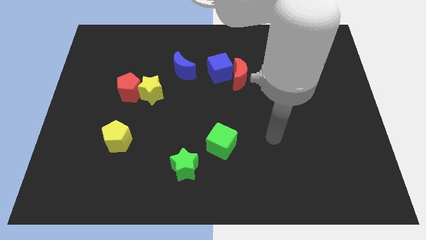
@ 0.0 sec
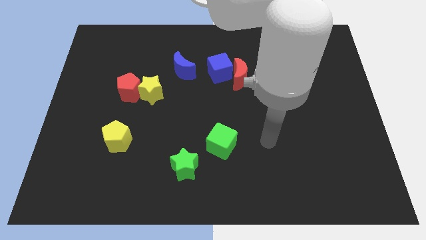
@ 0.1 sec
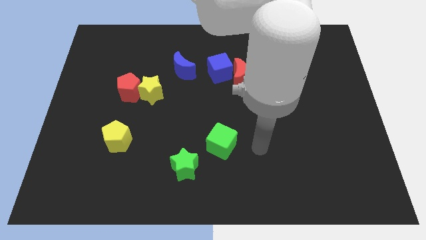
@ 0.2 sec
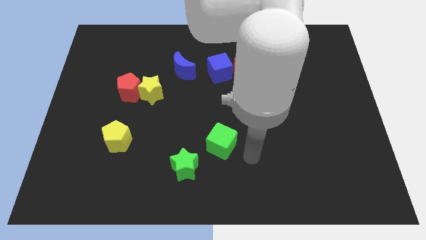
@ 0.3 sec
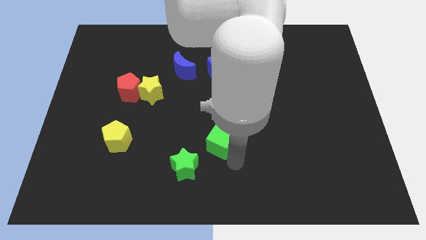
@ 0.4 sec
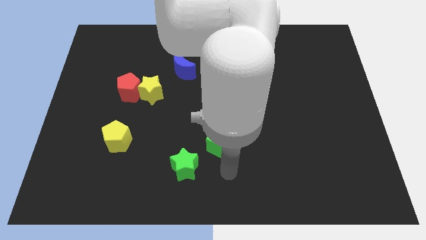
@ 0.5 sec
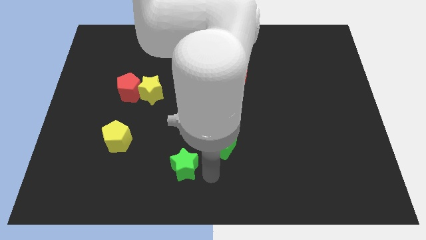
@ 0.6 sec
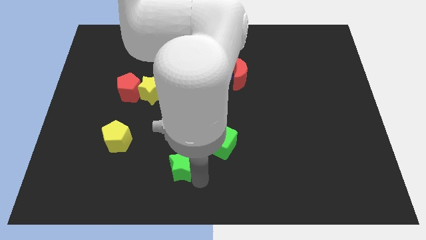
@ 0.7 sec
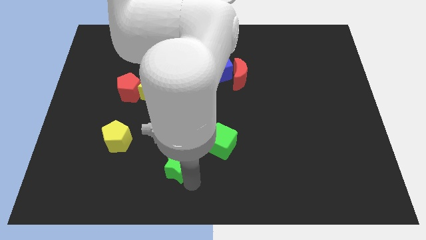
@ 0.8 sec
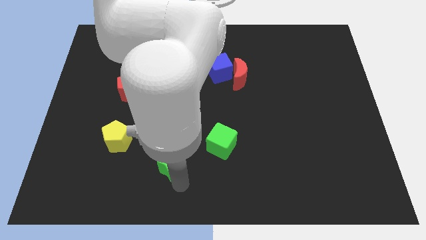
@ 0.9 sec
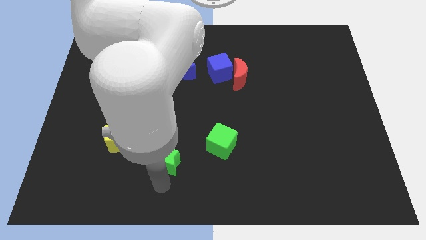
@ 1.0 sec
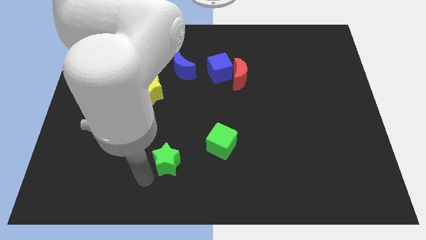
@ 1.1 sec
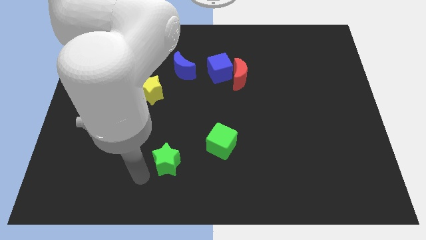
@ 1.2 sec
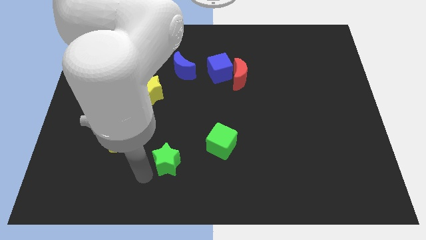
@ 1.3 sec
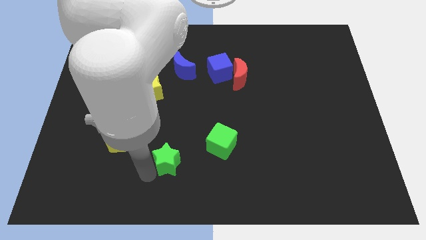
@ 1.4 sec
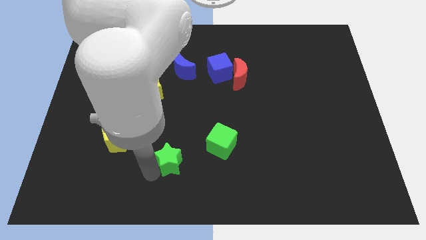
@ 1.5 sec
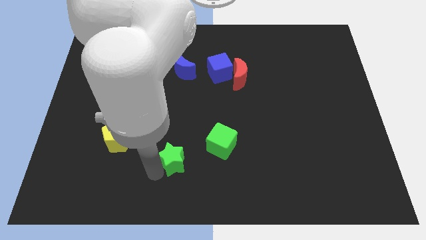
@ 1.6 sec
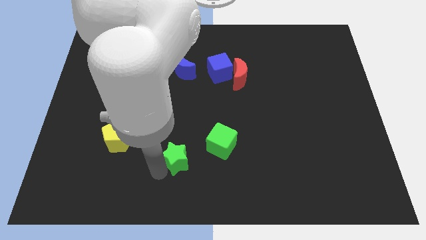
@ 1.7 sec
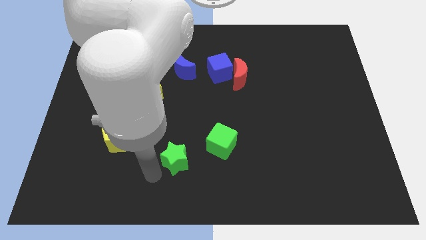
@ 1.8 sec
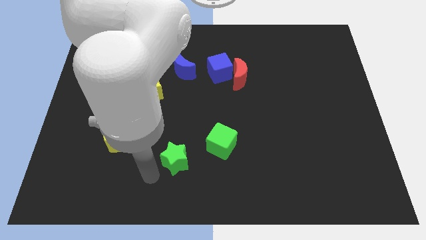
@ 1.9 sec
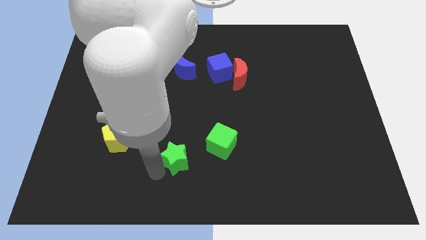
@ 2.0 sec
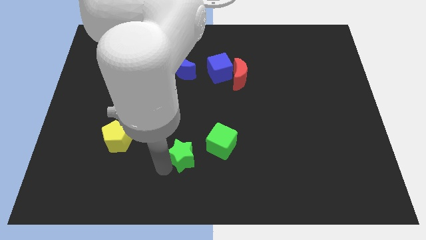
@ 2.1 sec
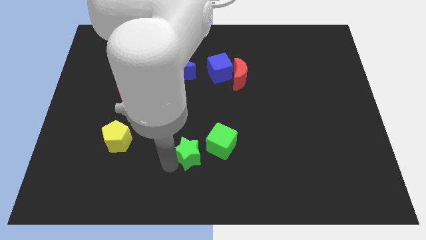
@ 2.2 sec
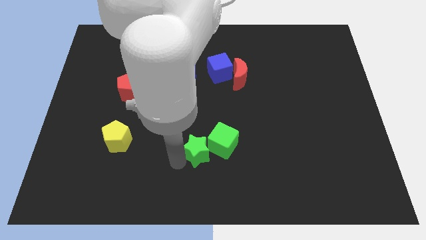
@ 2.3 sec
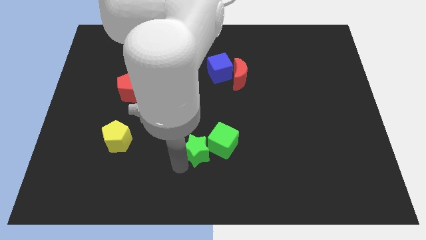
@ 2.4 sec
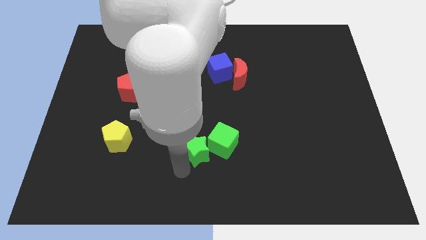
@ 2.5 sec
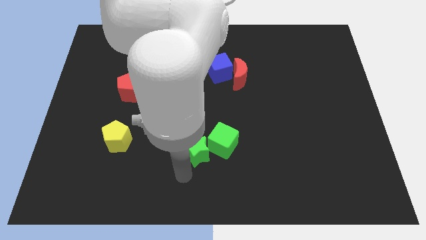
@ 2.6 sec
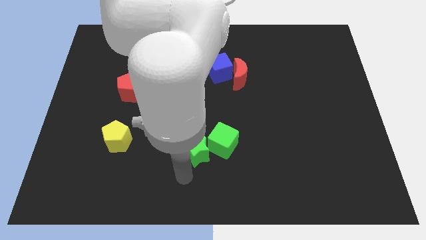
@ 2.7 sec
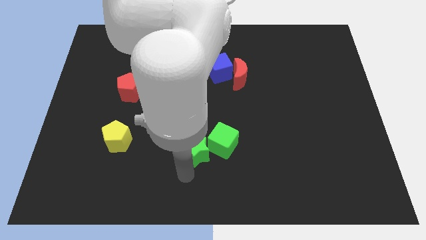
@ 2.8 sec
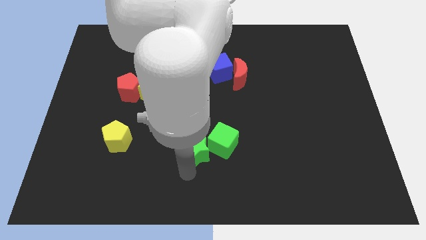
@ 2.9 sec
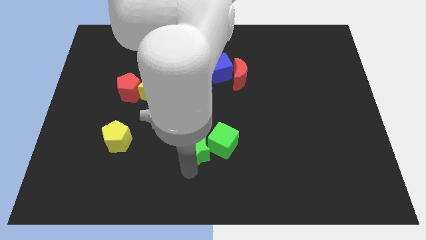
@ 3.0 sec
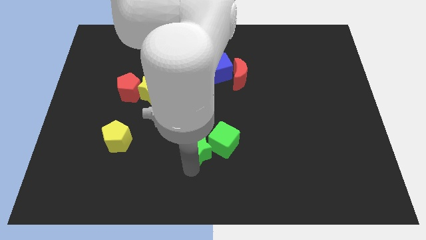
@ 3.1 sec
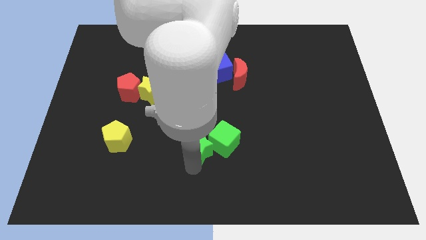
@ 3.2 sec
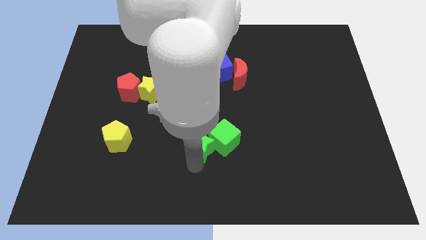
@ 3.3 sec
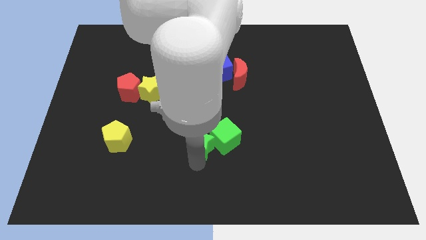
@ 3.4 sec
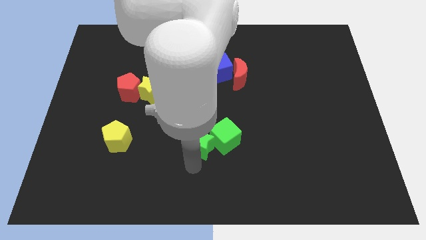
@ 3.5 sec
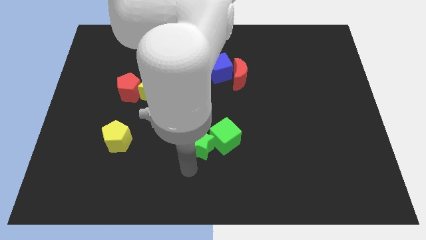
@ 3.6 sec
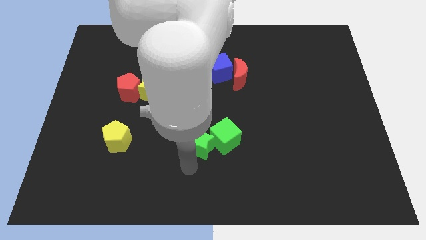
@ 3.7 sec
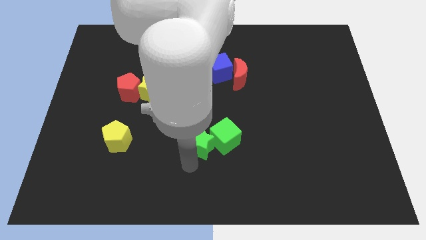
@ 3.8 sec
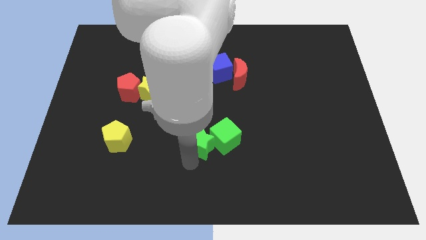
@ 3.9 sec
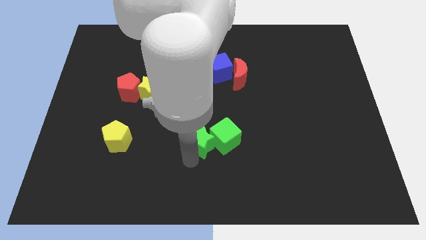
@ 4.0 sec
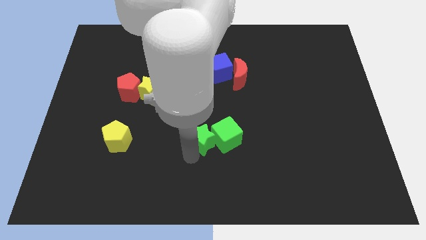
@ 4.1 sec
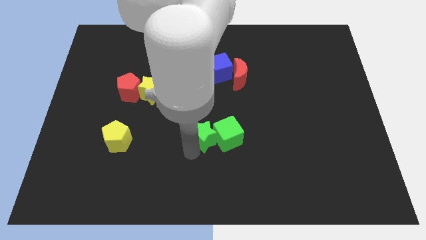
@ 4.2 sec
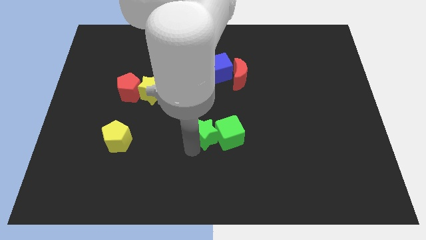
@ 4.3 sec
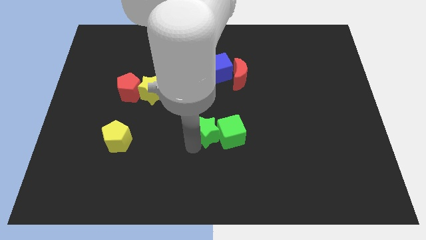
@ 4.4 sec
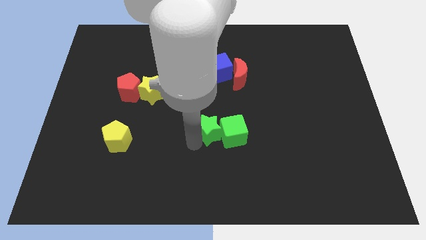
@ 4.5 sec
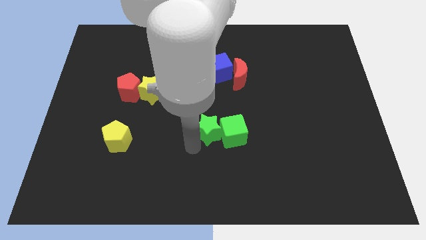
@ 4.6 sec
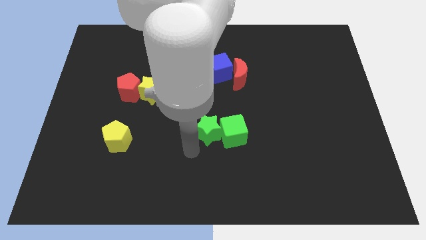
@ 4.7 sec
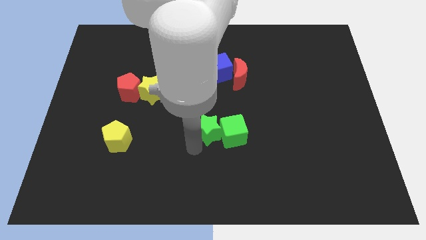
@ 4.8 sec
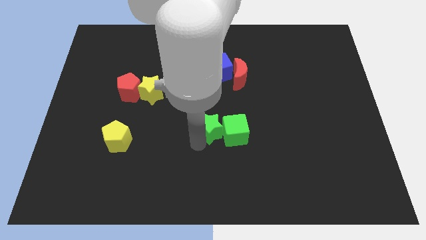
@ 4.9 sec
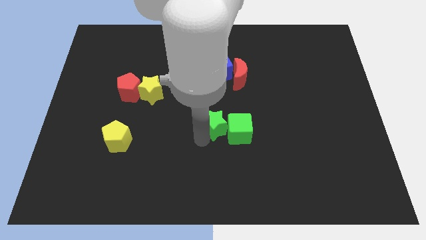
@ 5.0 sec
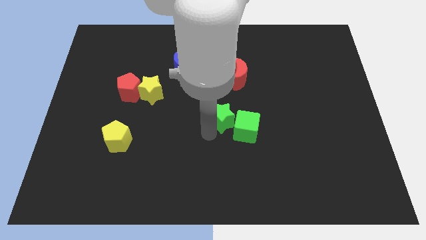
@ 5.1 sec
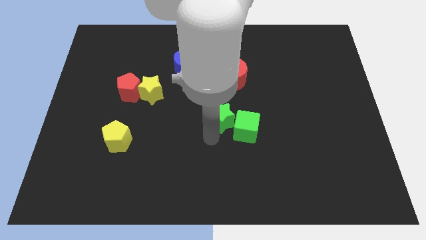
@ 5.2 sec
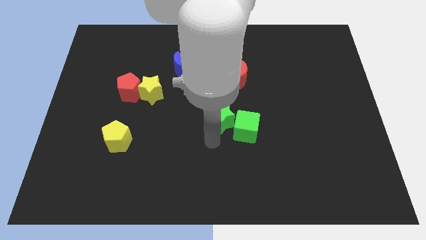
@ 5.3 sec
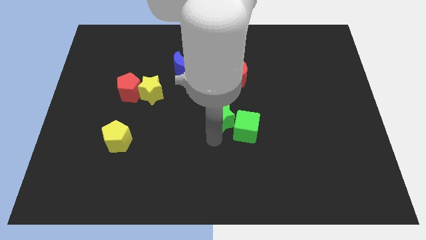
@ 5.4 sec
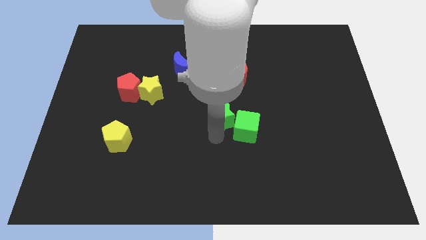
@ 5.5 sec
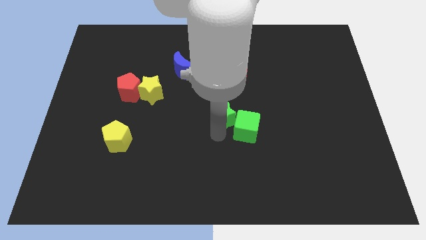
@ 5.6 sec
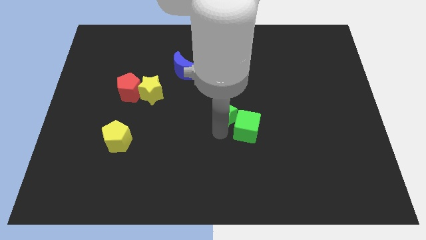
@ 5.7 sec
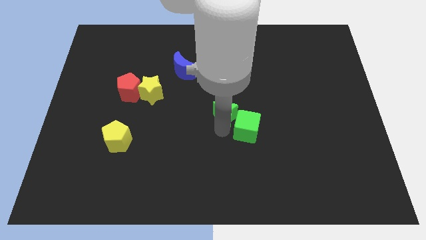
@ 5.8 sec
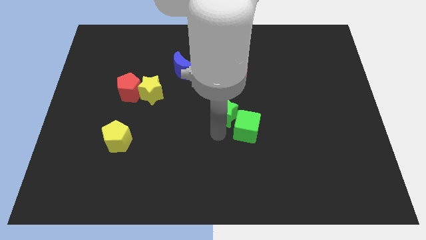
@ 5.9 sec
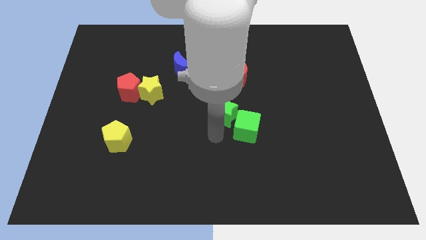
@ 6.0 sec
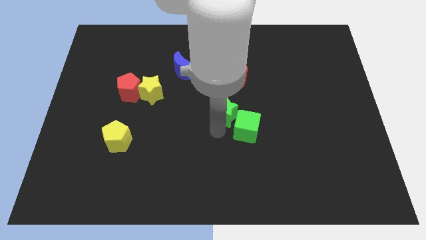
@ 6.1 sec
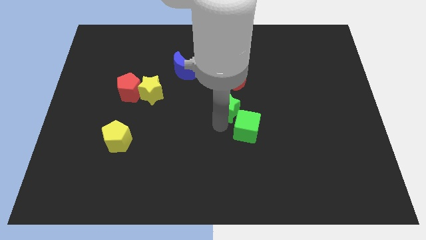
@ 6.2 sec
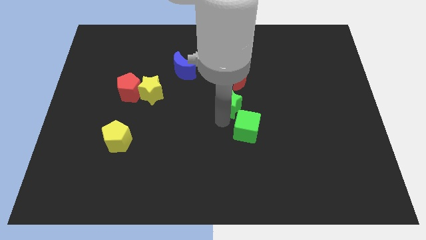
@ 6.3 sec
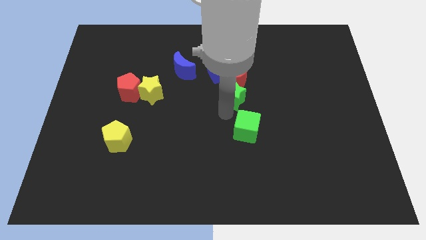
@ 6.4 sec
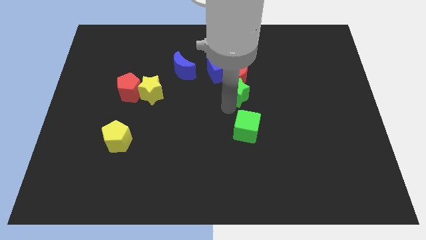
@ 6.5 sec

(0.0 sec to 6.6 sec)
move the green star close to the red moon

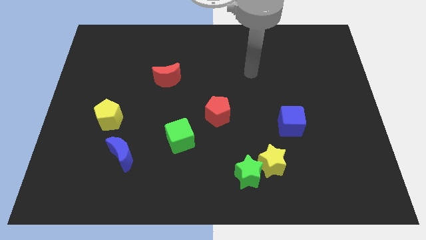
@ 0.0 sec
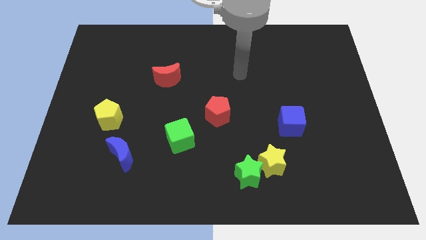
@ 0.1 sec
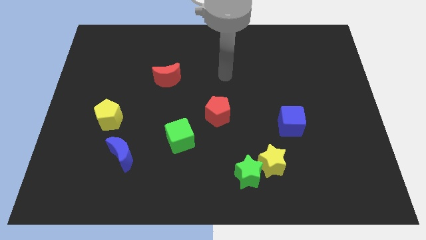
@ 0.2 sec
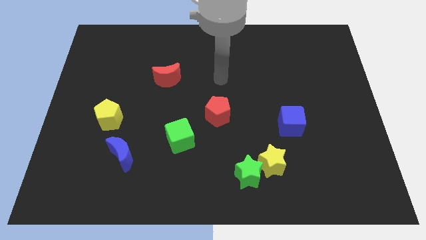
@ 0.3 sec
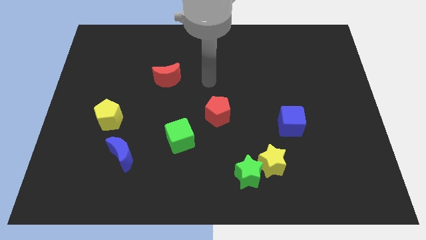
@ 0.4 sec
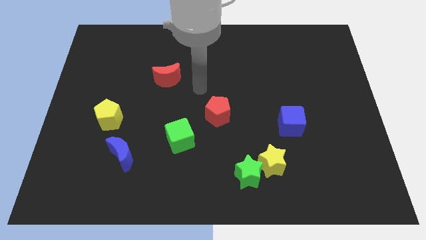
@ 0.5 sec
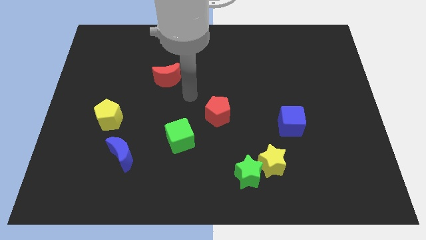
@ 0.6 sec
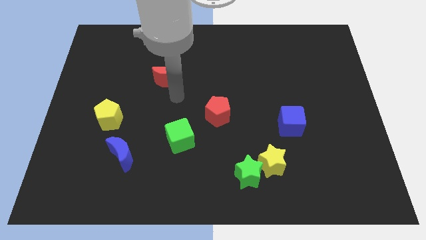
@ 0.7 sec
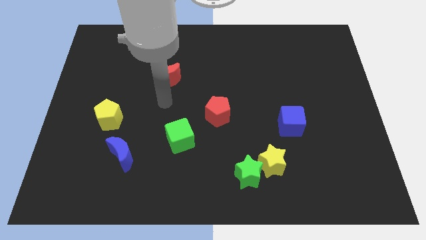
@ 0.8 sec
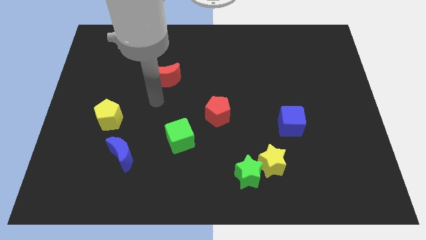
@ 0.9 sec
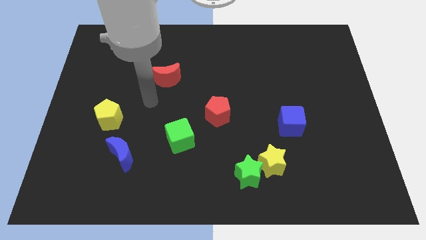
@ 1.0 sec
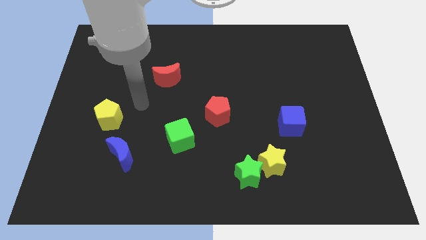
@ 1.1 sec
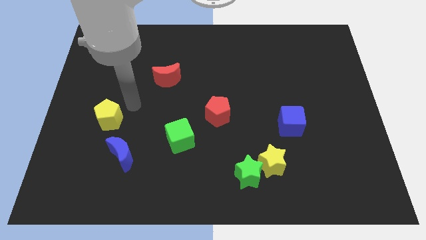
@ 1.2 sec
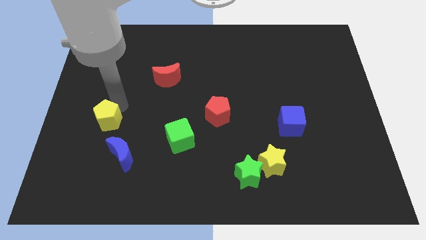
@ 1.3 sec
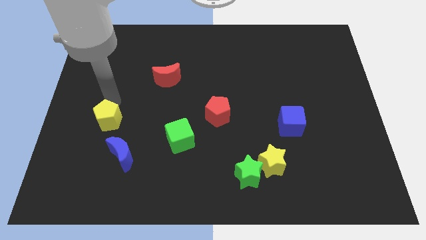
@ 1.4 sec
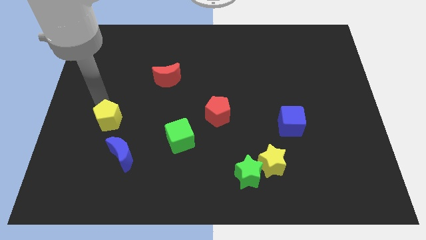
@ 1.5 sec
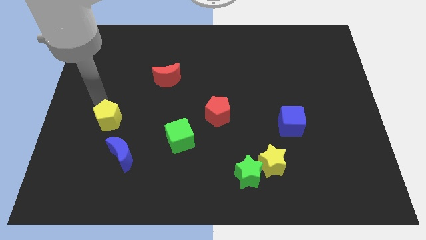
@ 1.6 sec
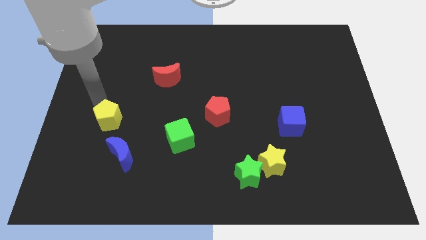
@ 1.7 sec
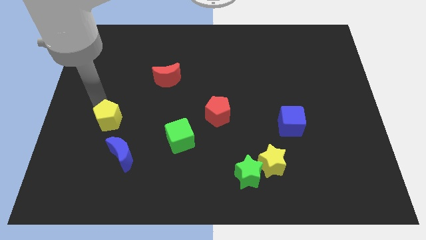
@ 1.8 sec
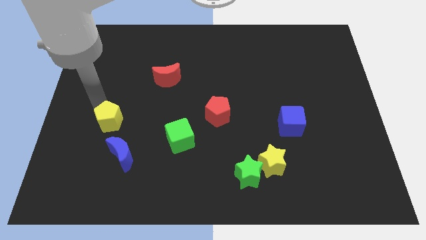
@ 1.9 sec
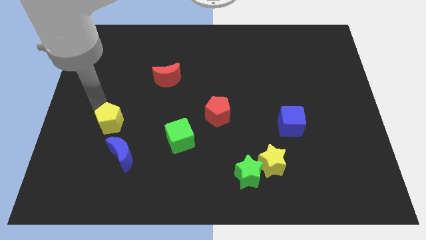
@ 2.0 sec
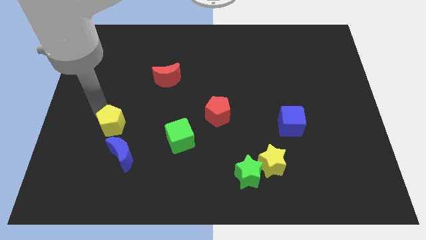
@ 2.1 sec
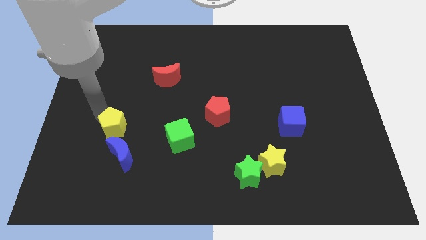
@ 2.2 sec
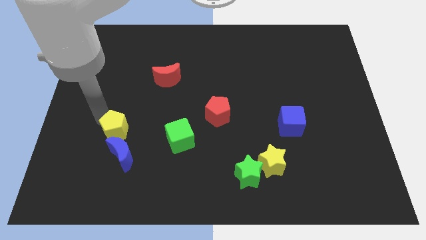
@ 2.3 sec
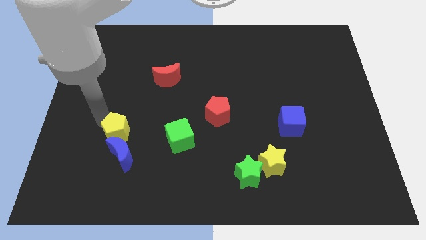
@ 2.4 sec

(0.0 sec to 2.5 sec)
push the yellow pentagon towards the blue moon
